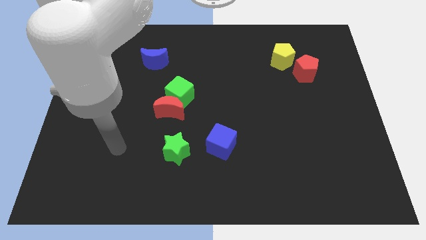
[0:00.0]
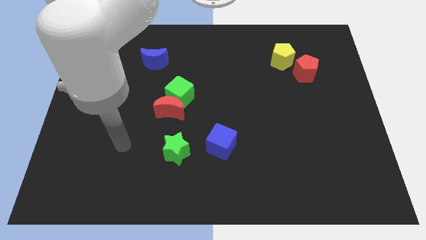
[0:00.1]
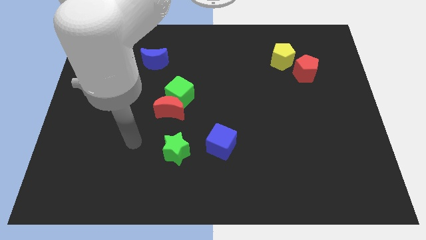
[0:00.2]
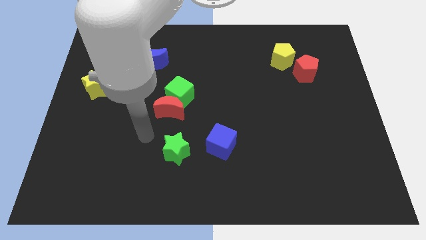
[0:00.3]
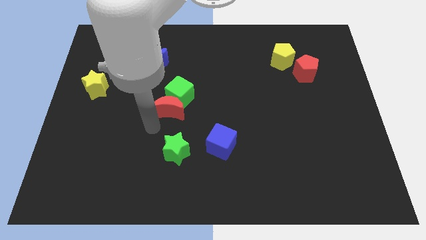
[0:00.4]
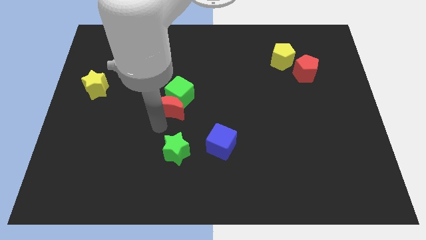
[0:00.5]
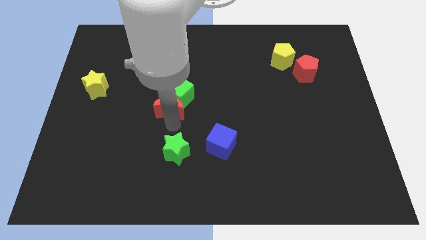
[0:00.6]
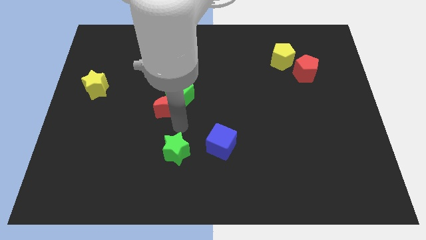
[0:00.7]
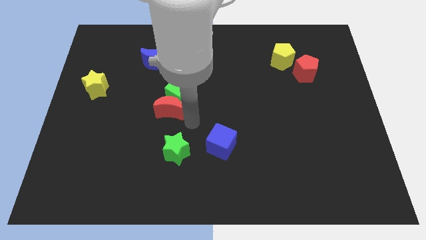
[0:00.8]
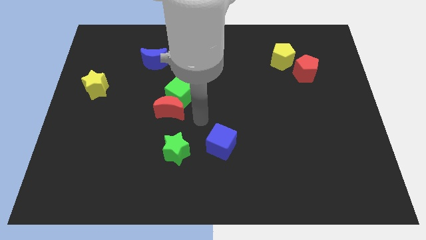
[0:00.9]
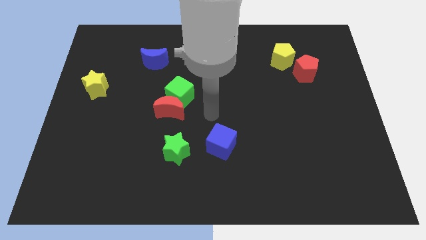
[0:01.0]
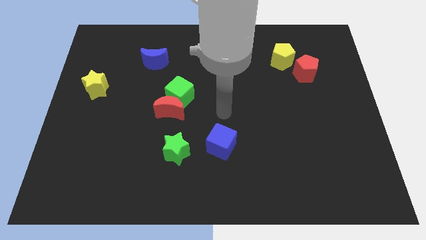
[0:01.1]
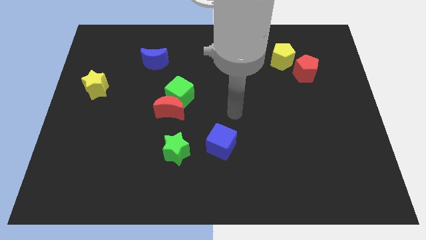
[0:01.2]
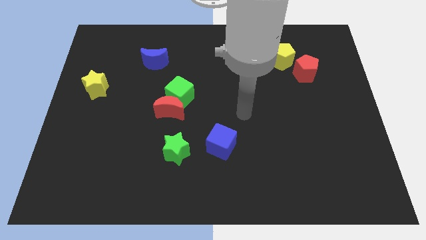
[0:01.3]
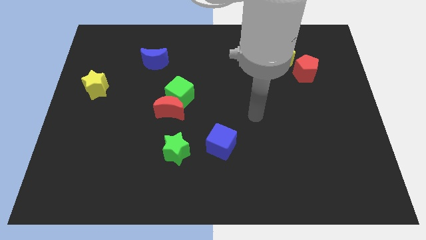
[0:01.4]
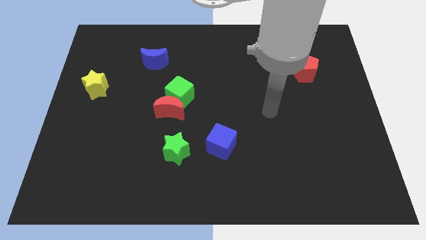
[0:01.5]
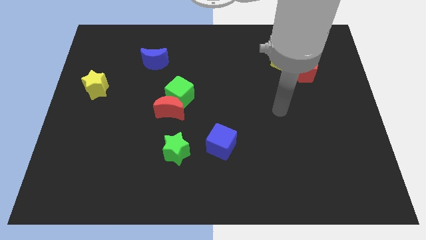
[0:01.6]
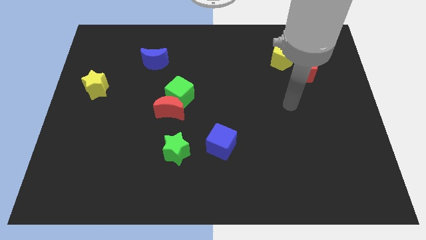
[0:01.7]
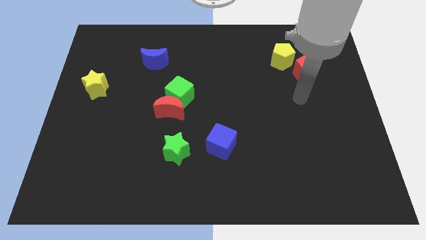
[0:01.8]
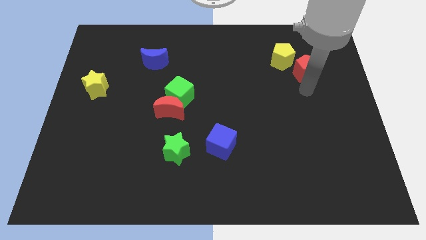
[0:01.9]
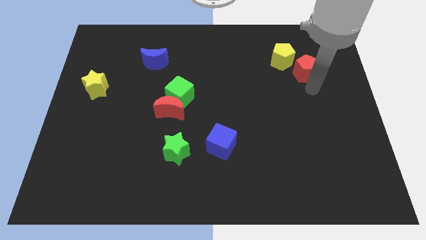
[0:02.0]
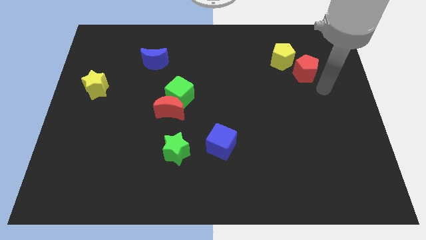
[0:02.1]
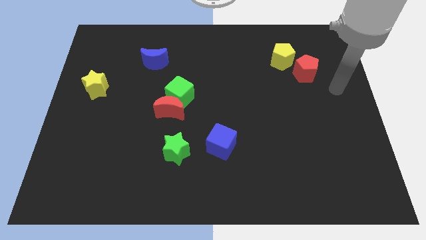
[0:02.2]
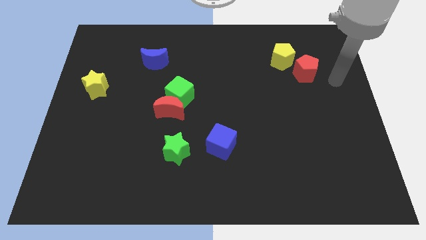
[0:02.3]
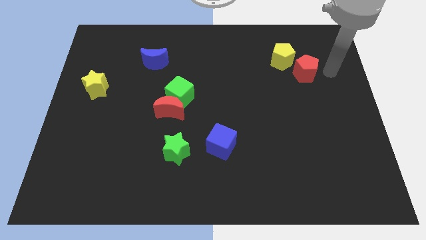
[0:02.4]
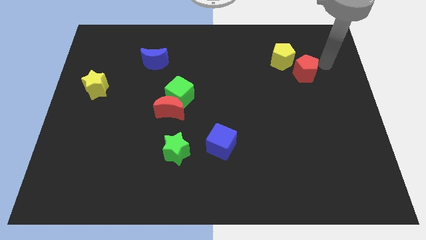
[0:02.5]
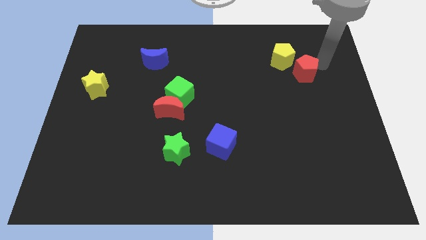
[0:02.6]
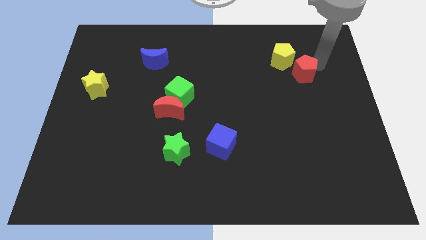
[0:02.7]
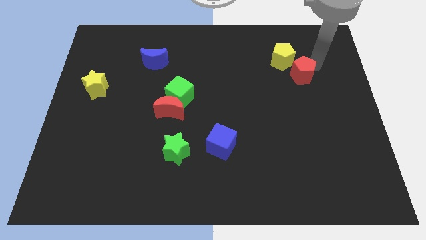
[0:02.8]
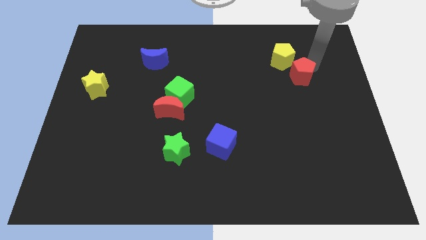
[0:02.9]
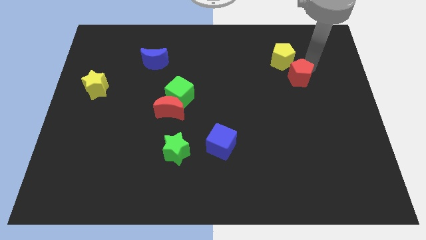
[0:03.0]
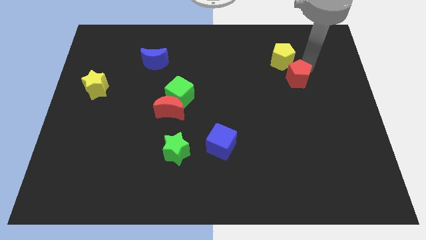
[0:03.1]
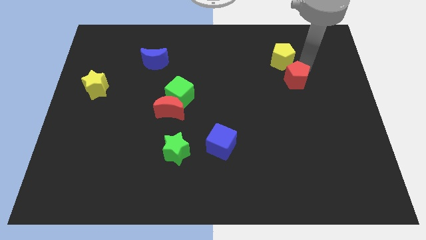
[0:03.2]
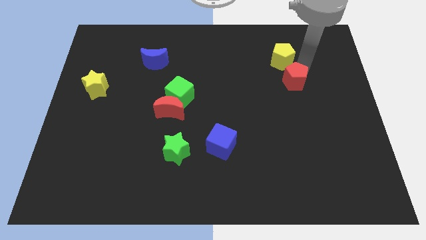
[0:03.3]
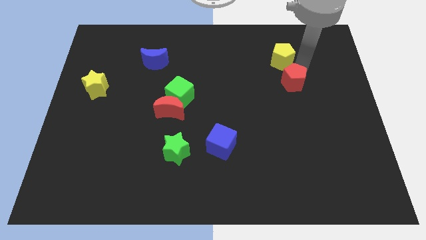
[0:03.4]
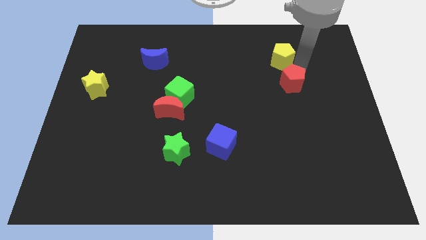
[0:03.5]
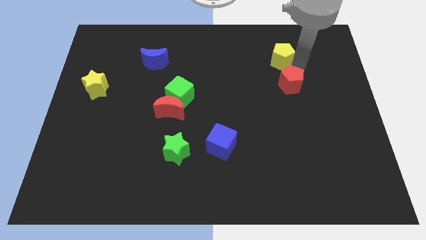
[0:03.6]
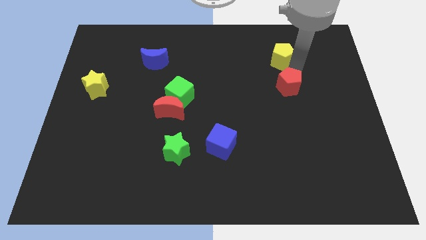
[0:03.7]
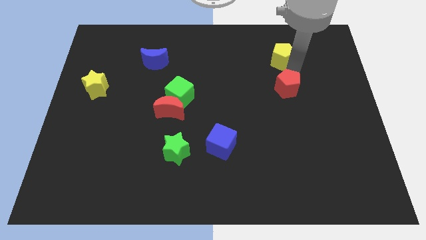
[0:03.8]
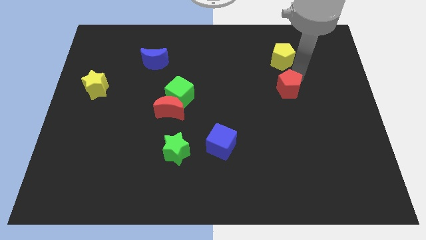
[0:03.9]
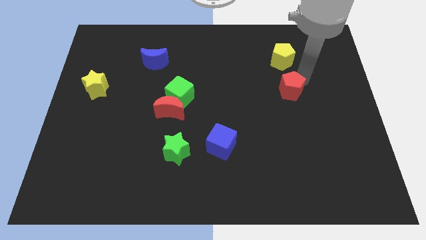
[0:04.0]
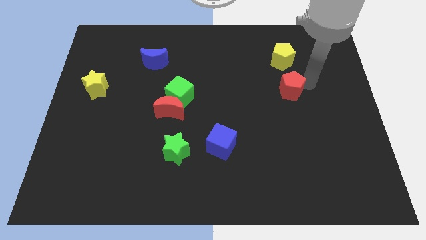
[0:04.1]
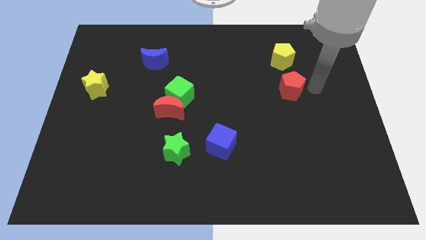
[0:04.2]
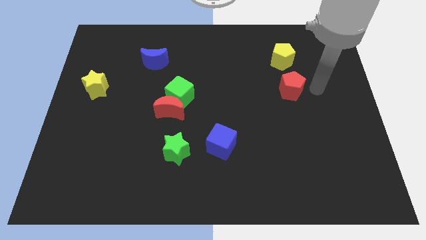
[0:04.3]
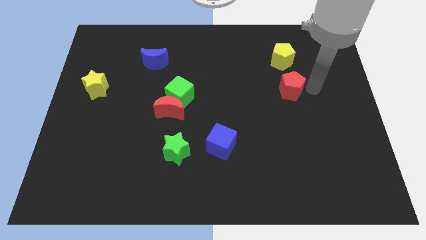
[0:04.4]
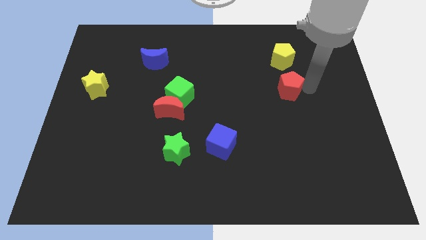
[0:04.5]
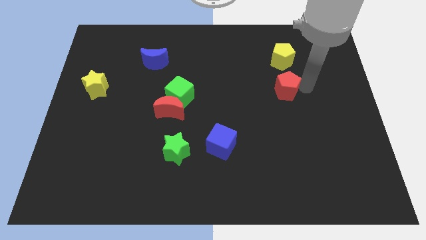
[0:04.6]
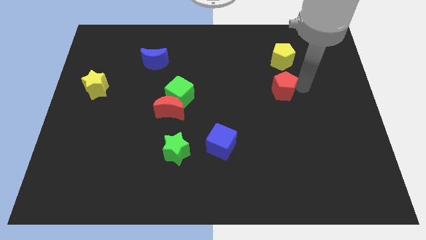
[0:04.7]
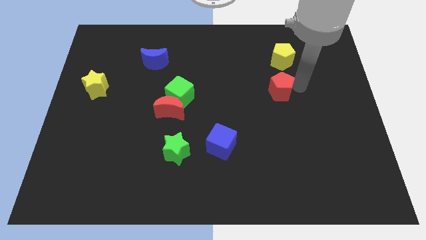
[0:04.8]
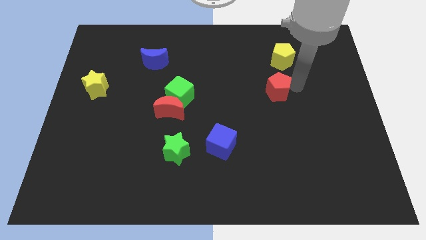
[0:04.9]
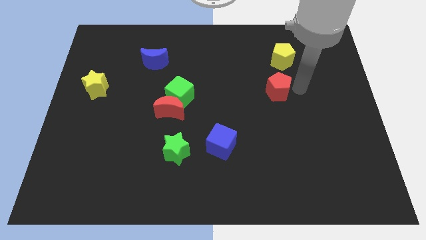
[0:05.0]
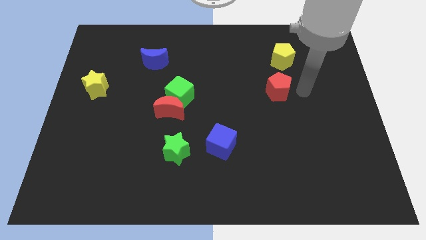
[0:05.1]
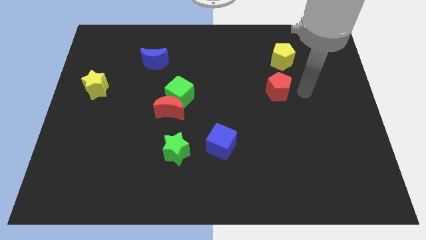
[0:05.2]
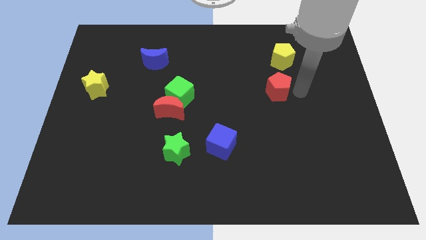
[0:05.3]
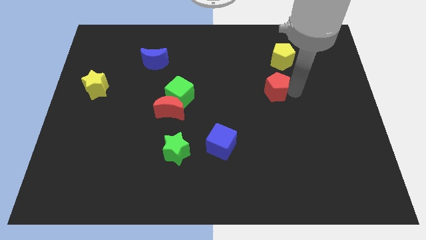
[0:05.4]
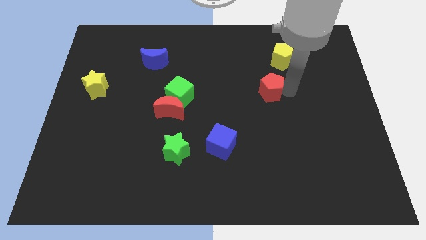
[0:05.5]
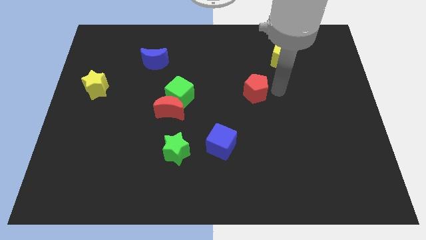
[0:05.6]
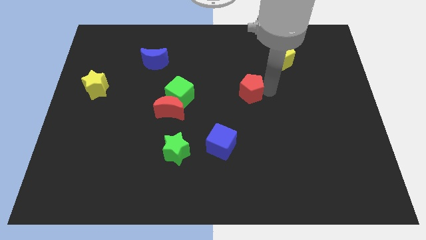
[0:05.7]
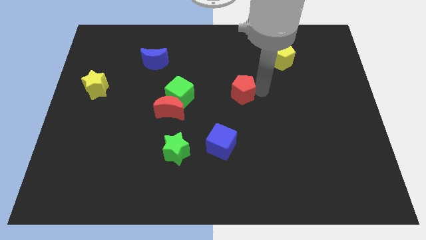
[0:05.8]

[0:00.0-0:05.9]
slide the red pentagon to the right of the green cube

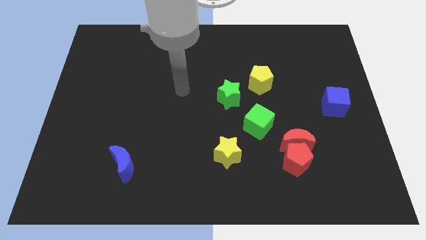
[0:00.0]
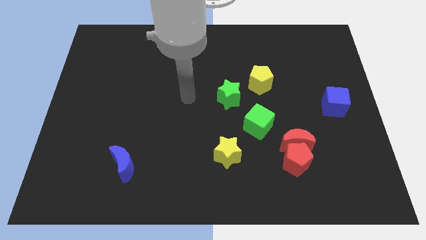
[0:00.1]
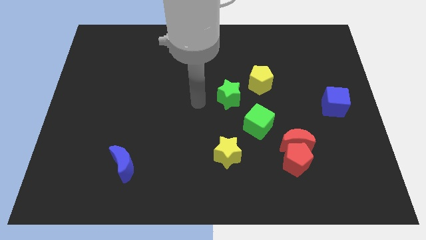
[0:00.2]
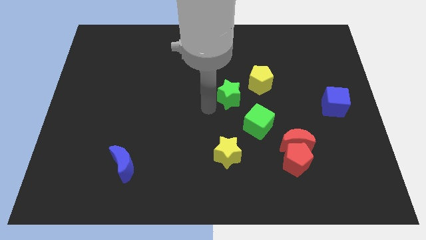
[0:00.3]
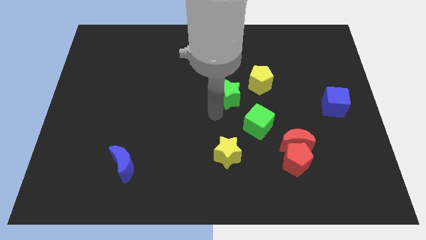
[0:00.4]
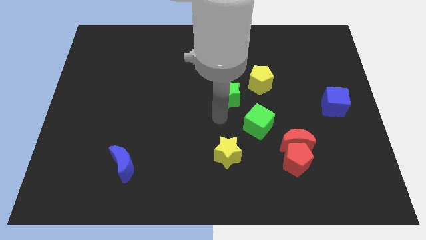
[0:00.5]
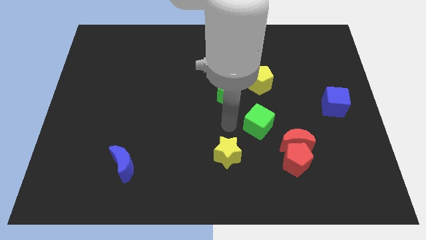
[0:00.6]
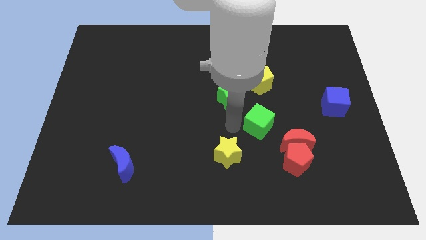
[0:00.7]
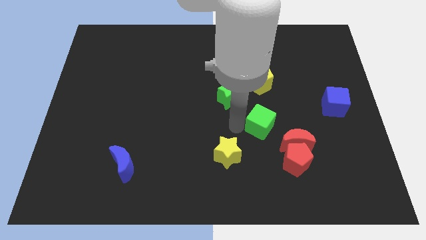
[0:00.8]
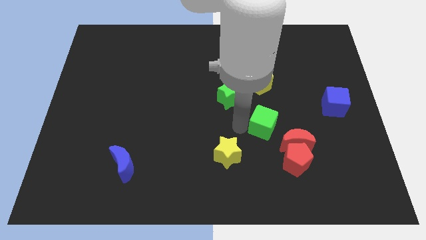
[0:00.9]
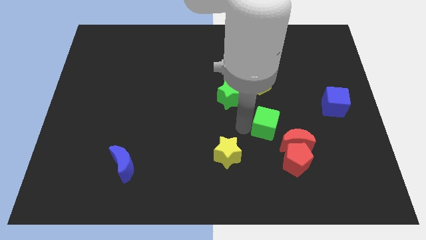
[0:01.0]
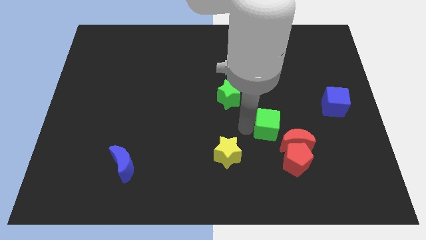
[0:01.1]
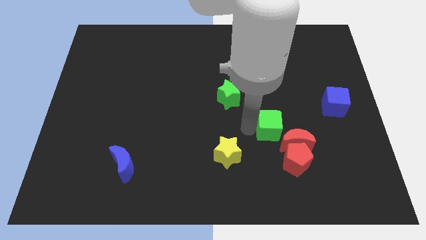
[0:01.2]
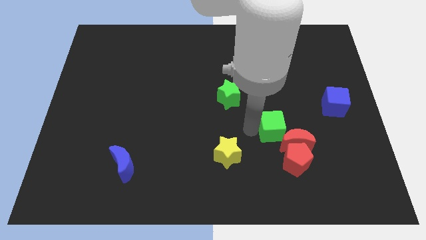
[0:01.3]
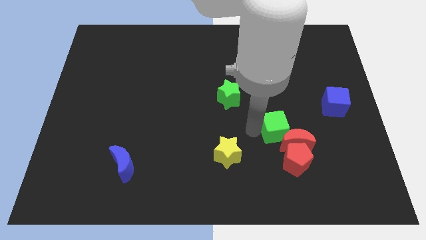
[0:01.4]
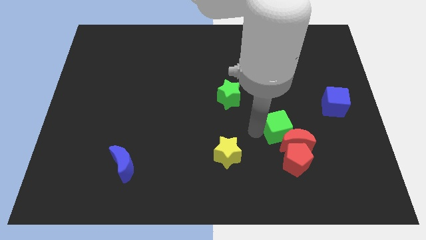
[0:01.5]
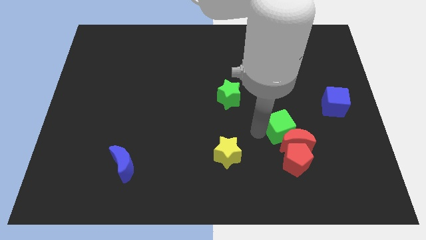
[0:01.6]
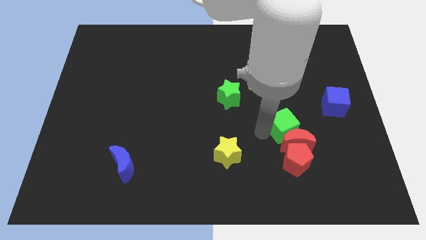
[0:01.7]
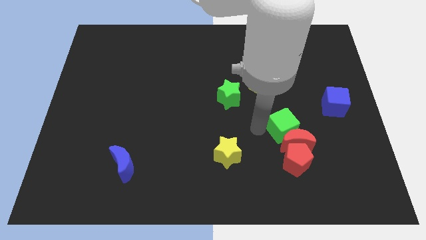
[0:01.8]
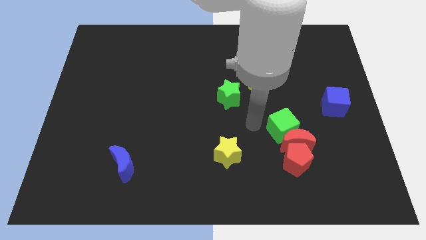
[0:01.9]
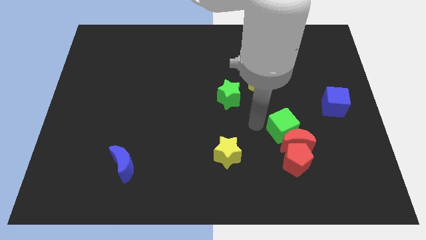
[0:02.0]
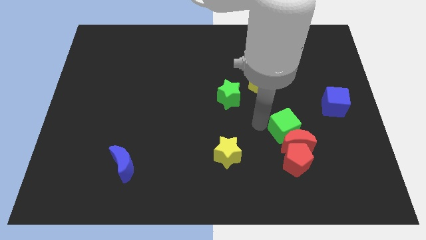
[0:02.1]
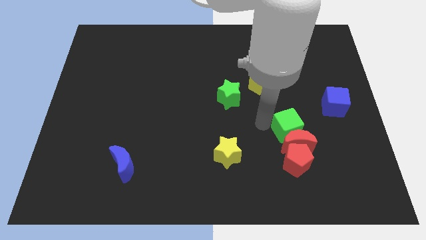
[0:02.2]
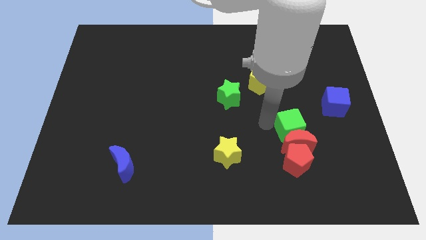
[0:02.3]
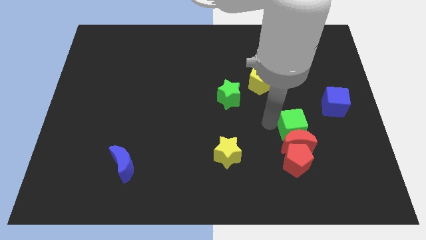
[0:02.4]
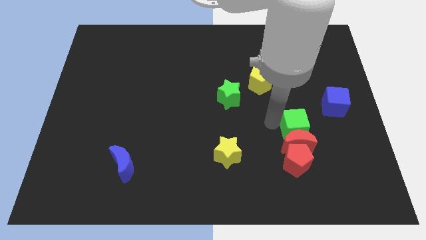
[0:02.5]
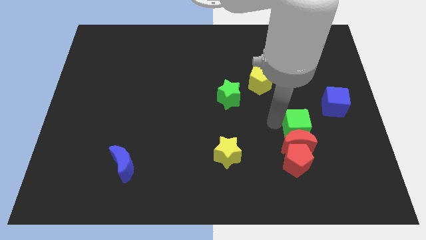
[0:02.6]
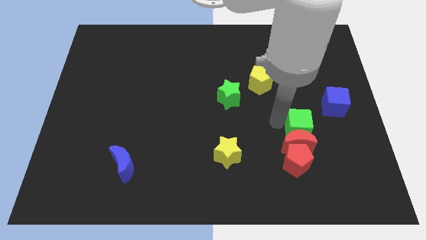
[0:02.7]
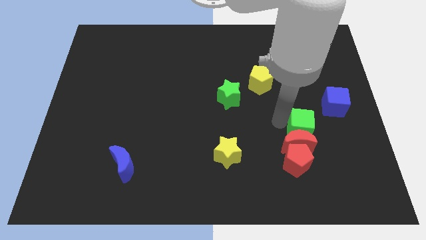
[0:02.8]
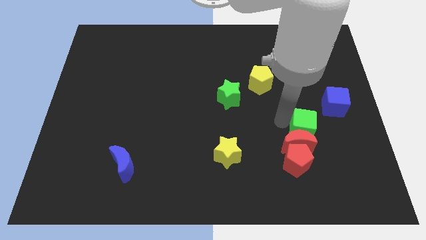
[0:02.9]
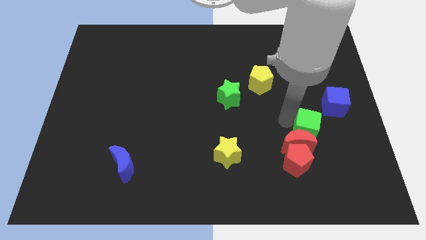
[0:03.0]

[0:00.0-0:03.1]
slide the green cube to the right of the red moon
